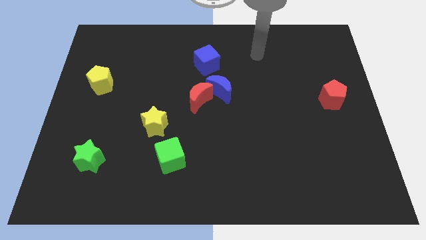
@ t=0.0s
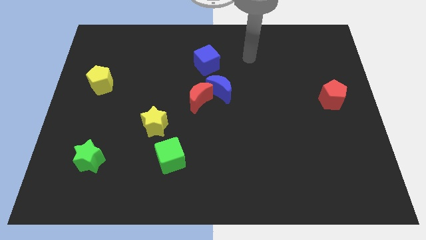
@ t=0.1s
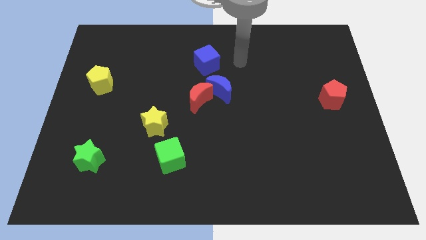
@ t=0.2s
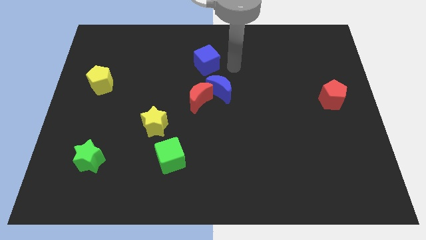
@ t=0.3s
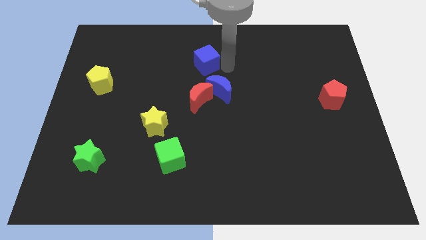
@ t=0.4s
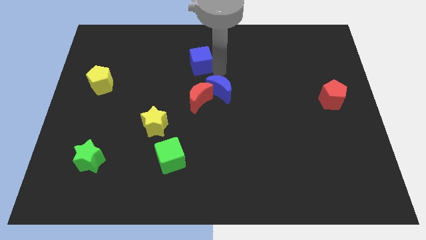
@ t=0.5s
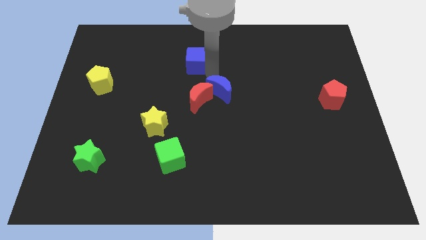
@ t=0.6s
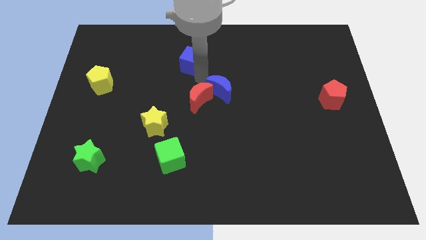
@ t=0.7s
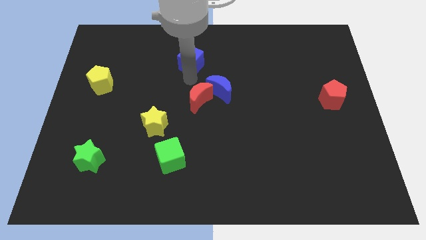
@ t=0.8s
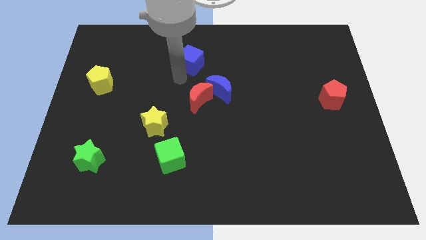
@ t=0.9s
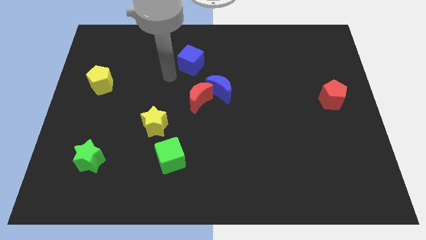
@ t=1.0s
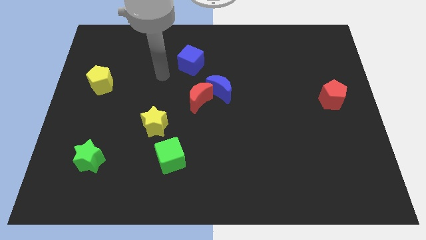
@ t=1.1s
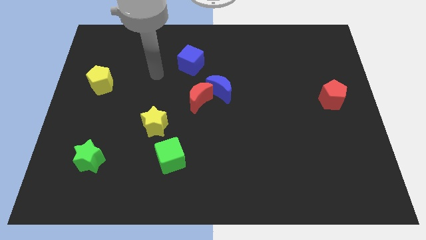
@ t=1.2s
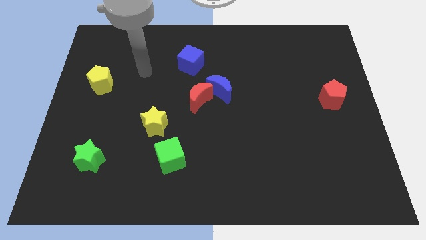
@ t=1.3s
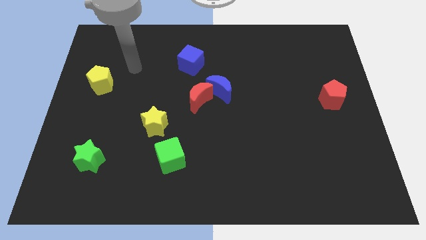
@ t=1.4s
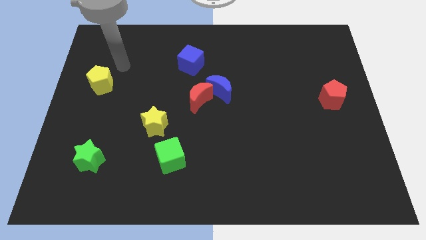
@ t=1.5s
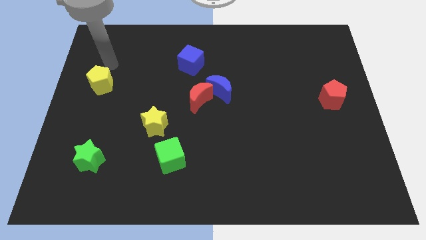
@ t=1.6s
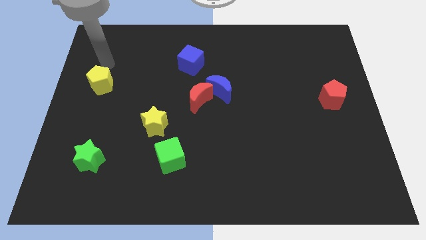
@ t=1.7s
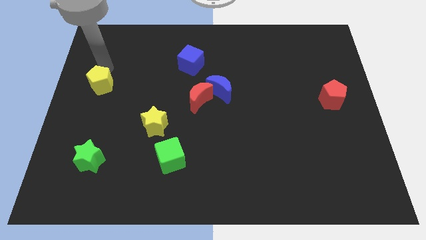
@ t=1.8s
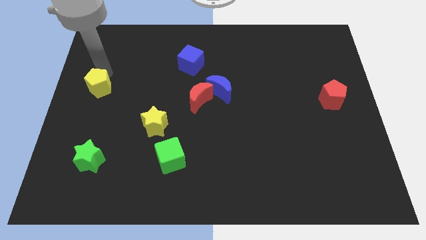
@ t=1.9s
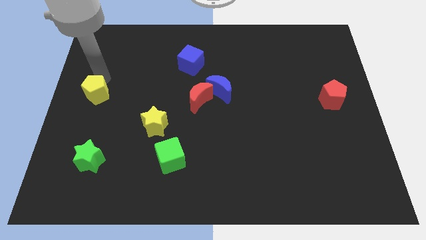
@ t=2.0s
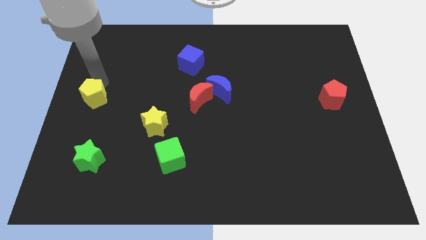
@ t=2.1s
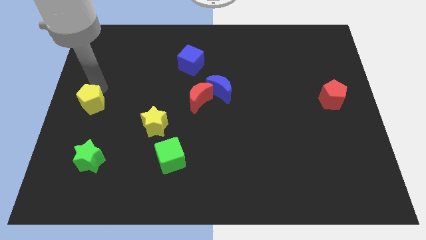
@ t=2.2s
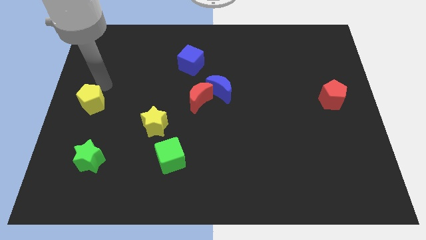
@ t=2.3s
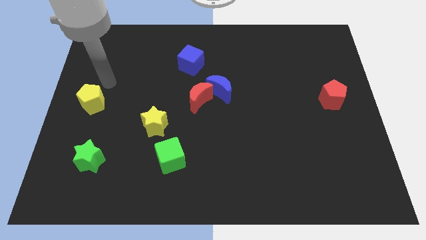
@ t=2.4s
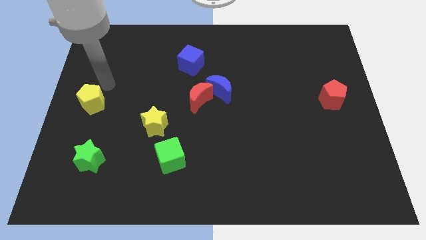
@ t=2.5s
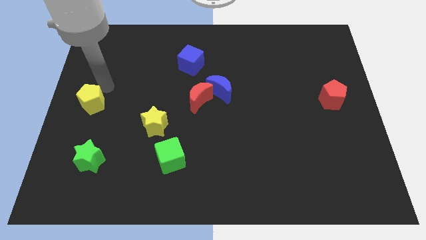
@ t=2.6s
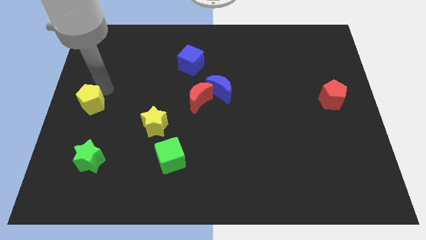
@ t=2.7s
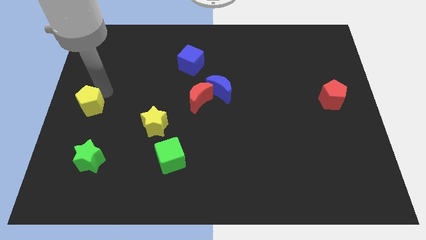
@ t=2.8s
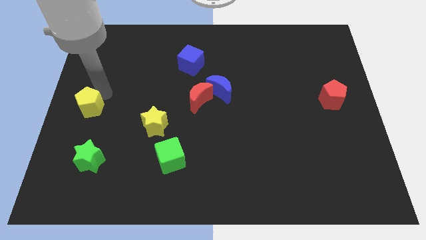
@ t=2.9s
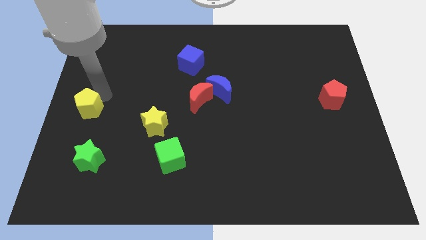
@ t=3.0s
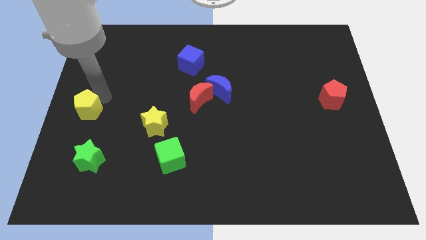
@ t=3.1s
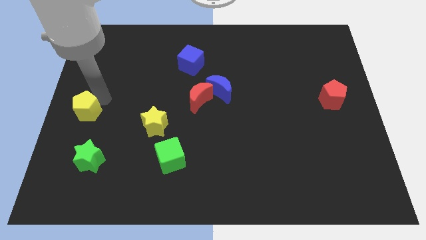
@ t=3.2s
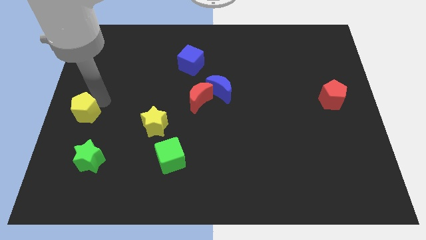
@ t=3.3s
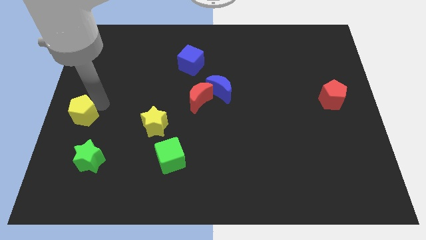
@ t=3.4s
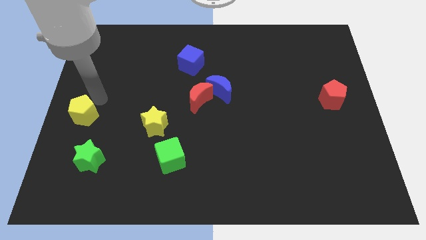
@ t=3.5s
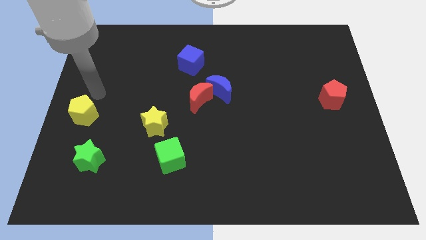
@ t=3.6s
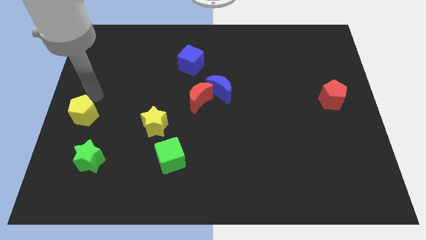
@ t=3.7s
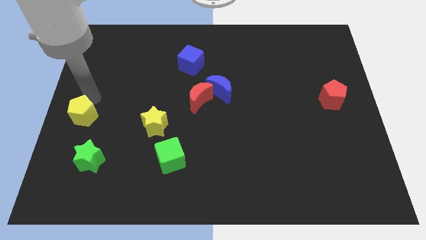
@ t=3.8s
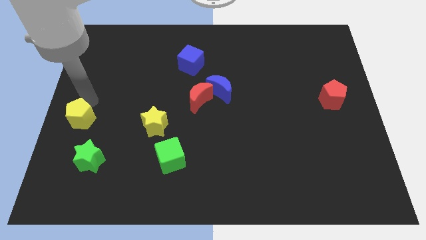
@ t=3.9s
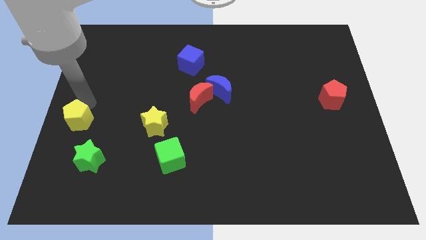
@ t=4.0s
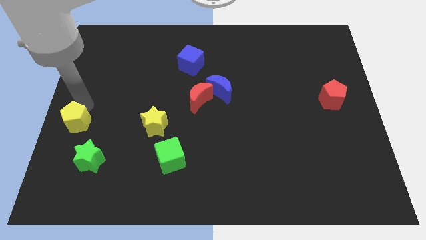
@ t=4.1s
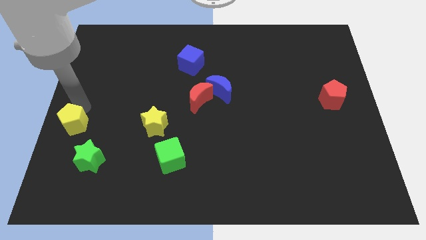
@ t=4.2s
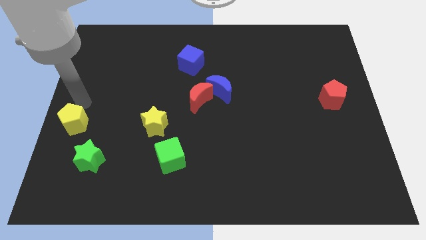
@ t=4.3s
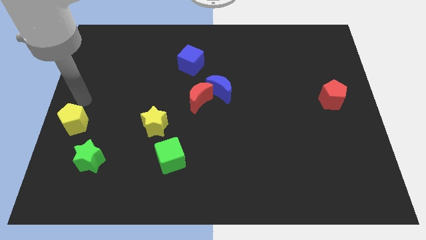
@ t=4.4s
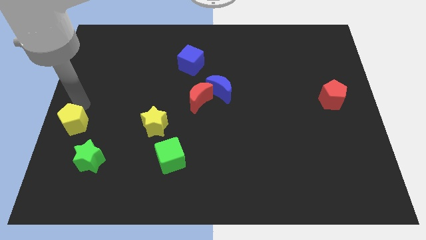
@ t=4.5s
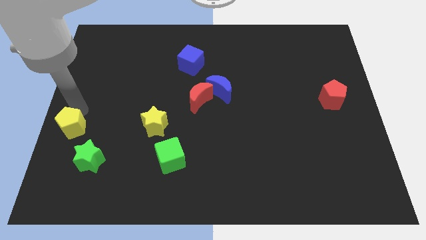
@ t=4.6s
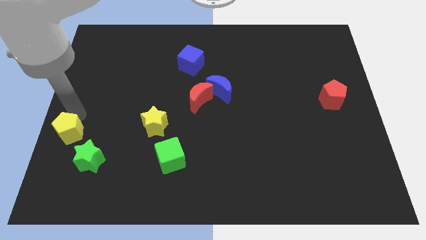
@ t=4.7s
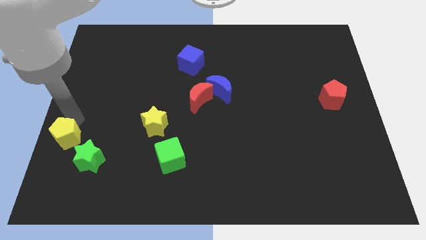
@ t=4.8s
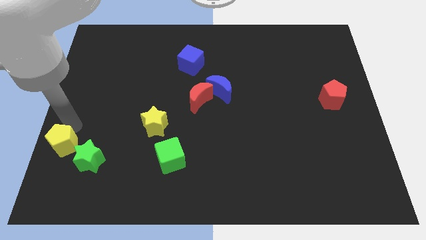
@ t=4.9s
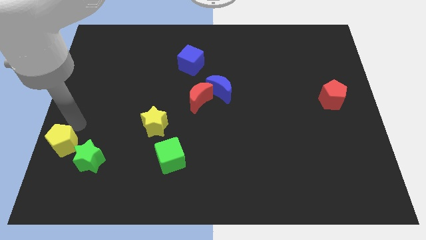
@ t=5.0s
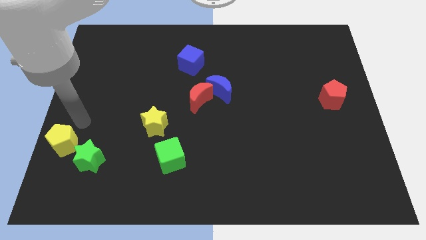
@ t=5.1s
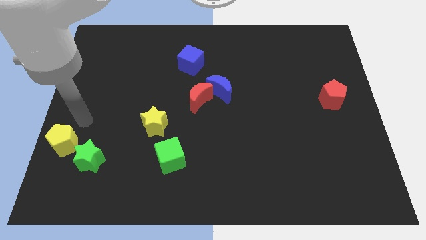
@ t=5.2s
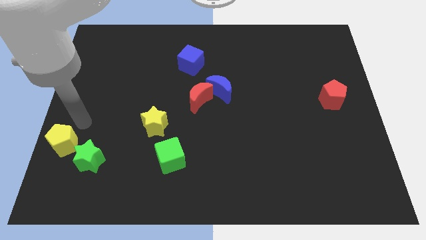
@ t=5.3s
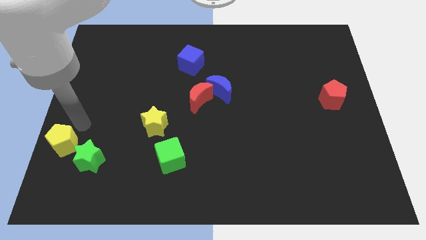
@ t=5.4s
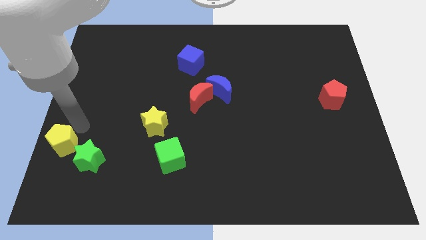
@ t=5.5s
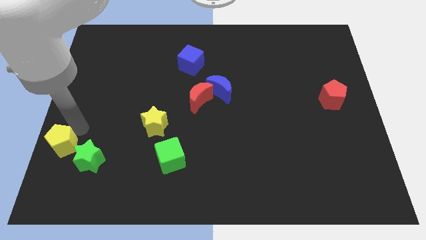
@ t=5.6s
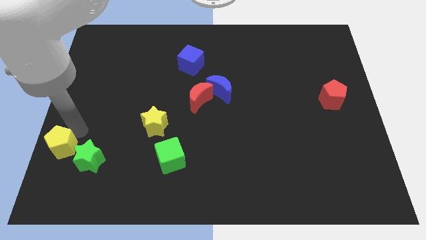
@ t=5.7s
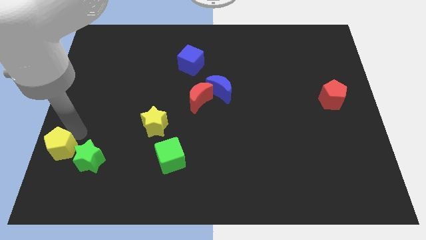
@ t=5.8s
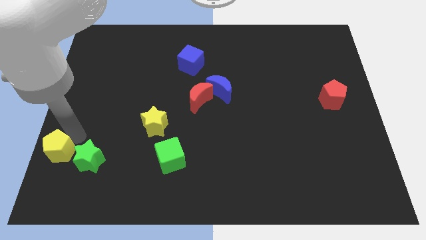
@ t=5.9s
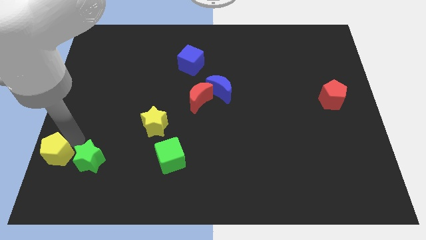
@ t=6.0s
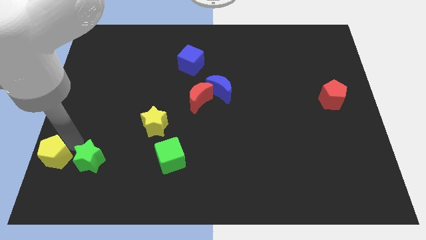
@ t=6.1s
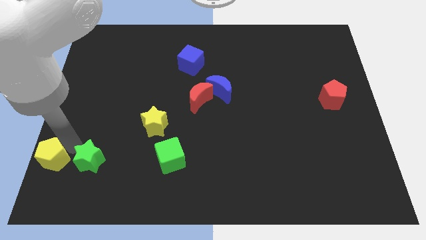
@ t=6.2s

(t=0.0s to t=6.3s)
put the yellow pentagon to the bottom left of the board
